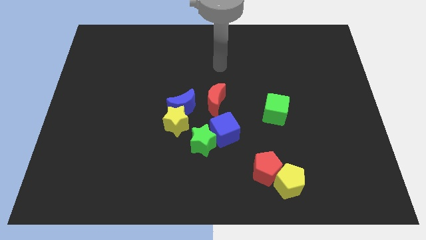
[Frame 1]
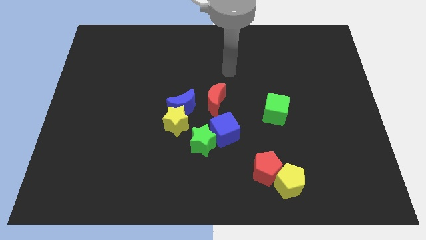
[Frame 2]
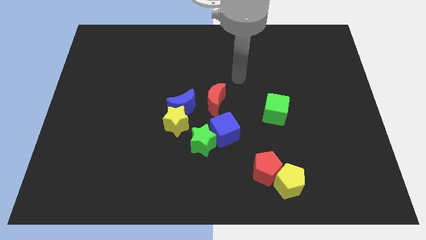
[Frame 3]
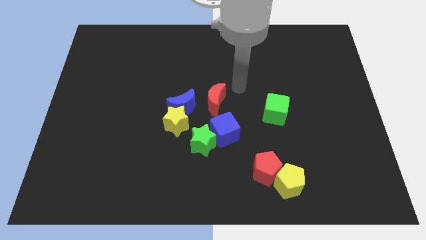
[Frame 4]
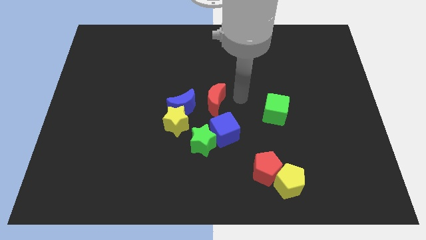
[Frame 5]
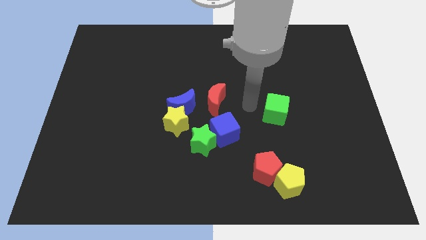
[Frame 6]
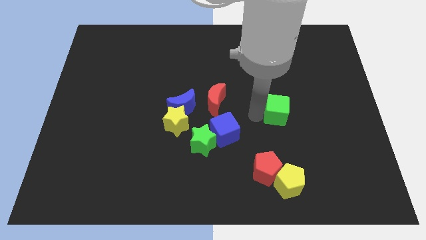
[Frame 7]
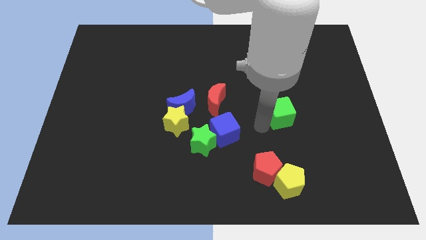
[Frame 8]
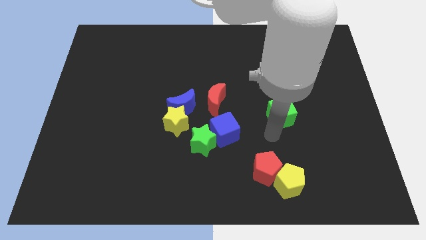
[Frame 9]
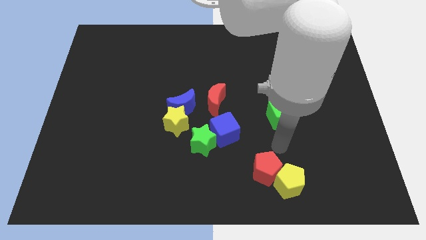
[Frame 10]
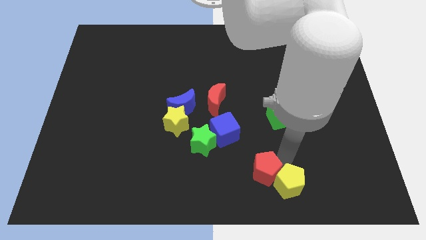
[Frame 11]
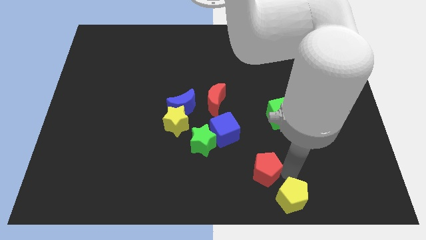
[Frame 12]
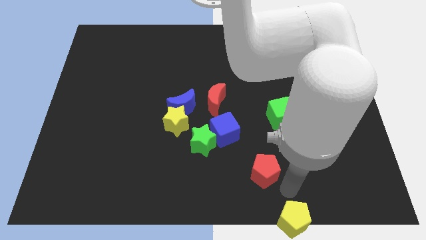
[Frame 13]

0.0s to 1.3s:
separate the red pentagon from the yellow pentagon

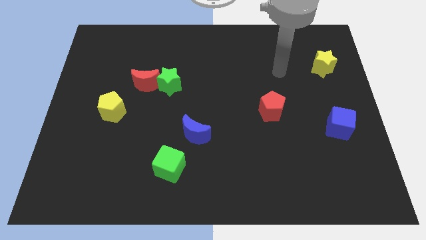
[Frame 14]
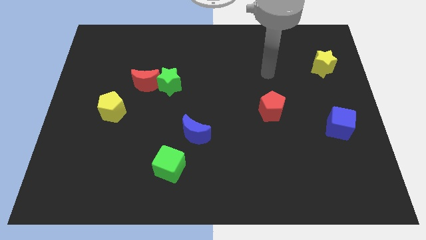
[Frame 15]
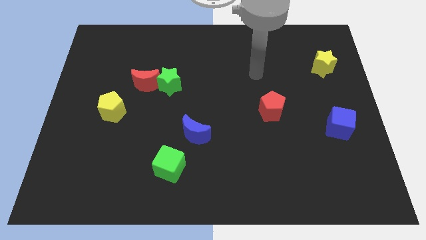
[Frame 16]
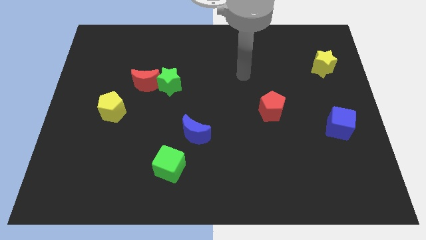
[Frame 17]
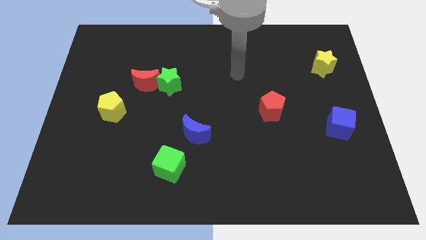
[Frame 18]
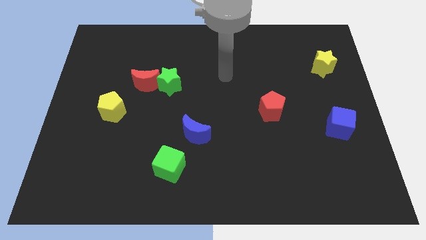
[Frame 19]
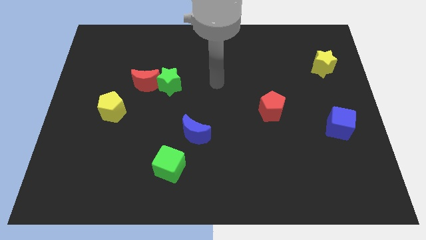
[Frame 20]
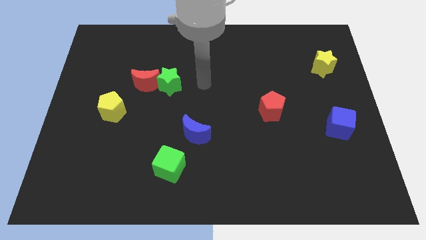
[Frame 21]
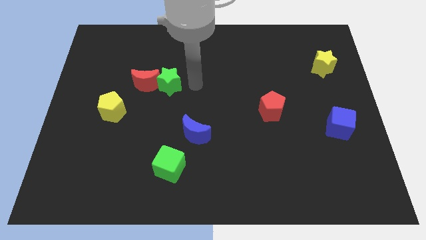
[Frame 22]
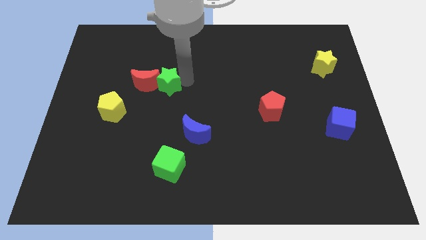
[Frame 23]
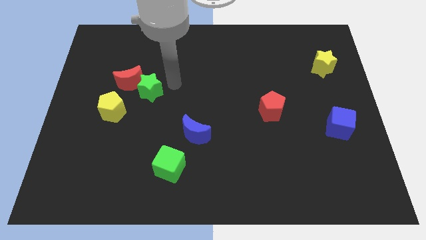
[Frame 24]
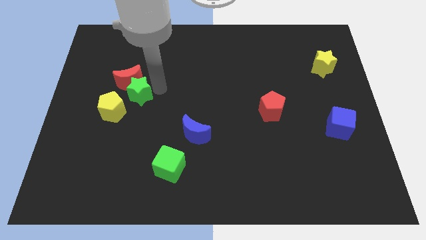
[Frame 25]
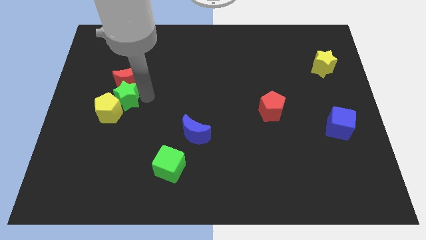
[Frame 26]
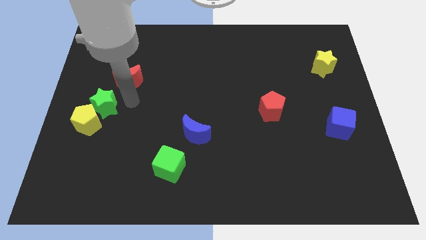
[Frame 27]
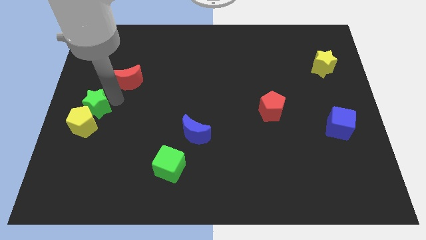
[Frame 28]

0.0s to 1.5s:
pull the red moon apart from the green star

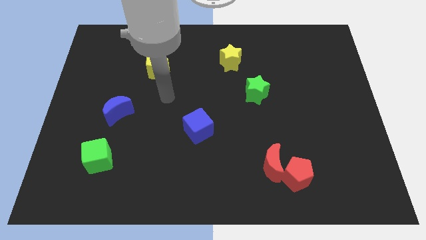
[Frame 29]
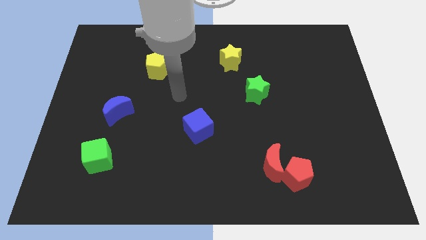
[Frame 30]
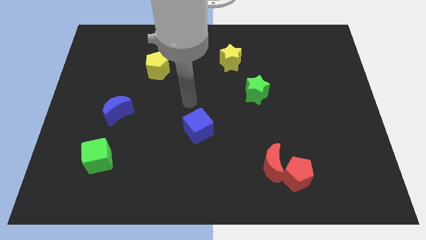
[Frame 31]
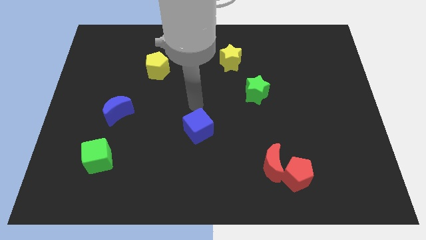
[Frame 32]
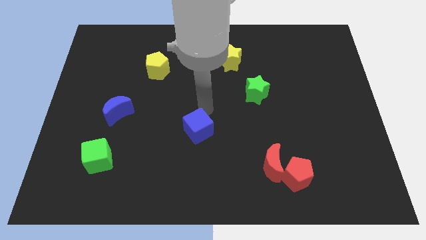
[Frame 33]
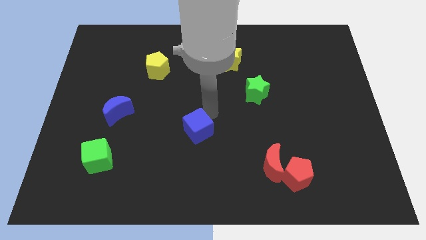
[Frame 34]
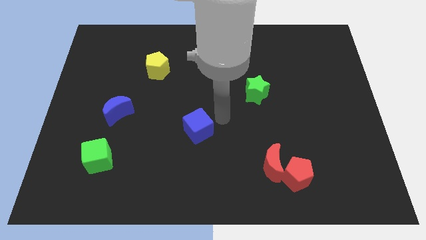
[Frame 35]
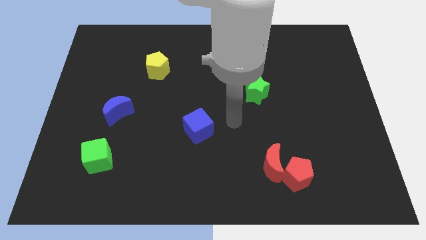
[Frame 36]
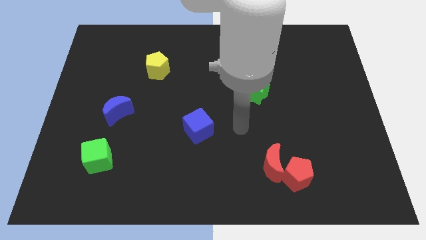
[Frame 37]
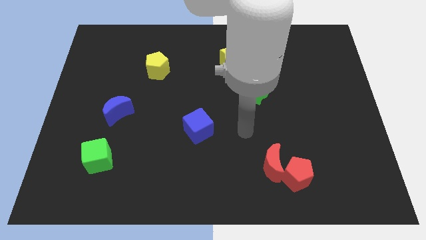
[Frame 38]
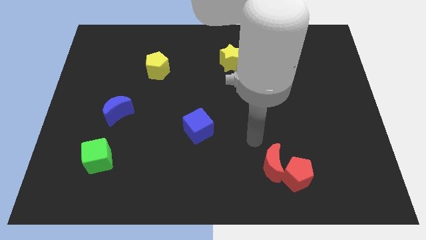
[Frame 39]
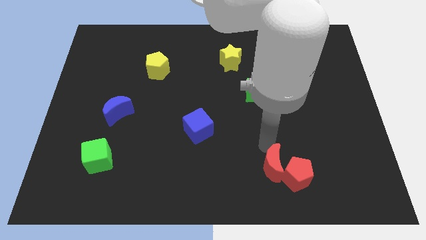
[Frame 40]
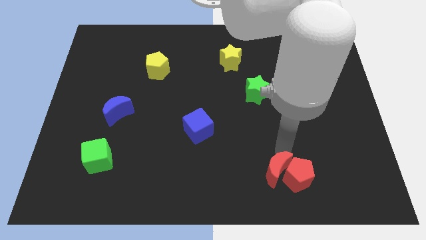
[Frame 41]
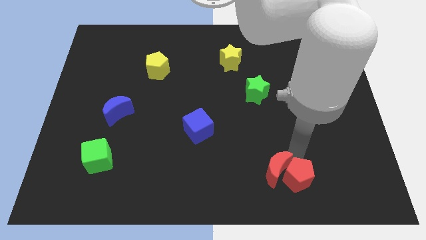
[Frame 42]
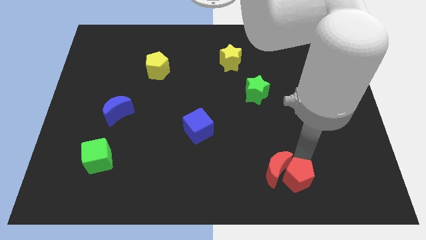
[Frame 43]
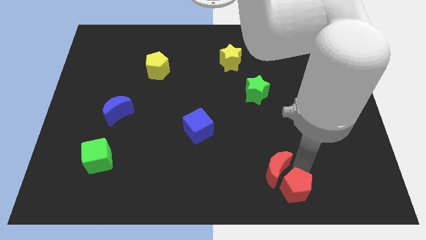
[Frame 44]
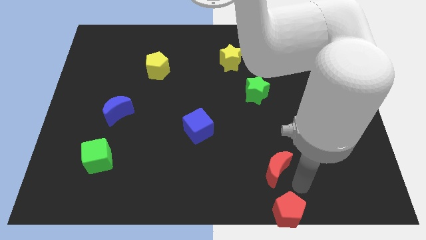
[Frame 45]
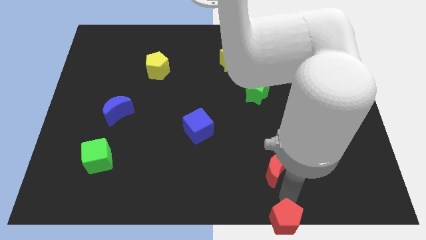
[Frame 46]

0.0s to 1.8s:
separate the red moon from the red pentagon

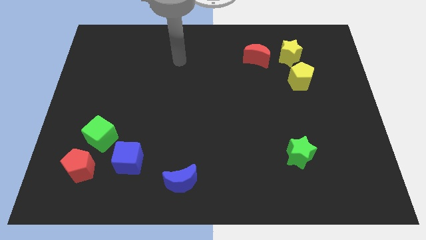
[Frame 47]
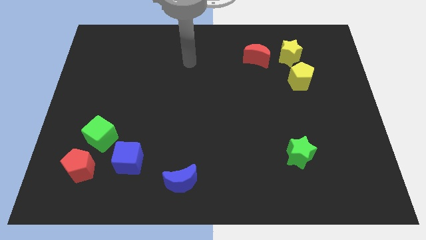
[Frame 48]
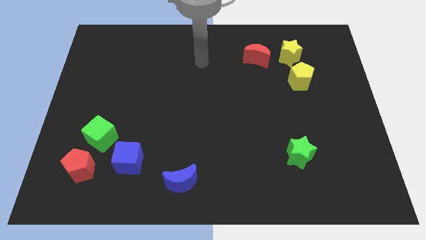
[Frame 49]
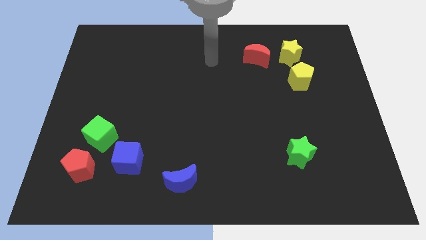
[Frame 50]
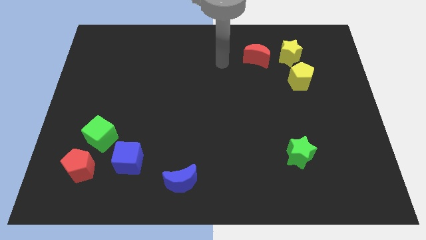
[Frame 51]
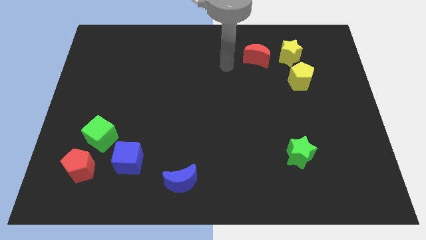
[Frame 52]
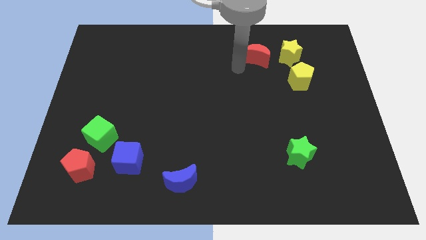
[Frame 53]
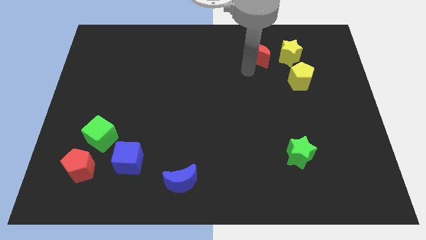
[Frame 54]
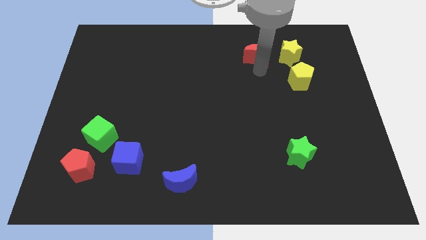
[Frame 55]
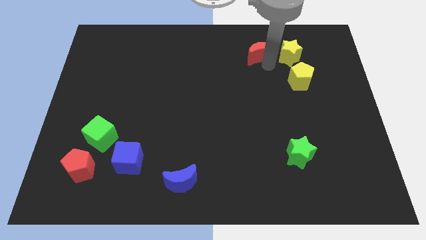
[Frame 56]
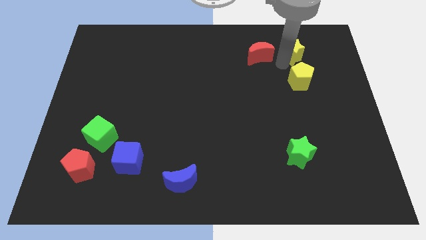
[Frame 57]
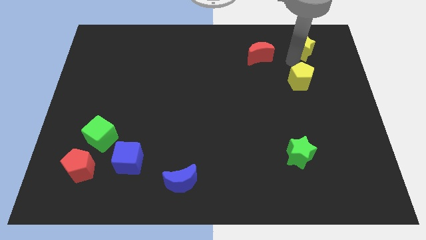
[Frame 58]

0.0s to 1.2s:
move the yellow pentagon away from the yellow star

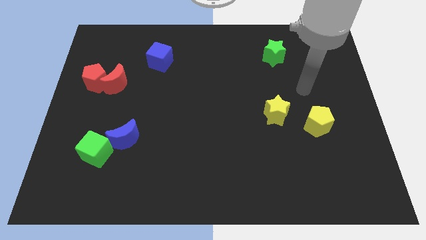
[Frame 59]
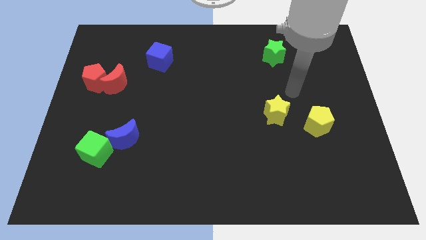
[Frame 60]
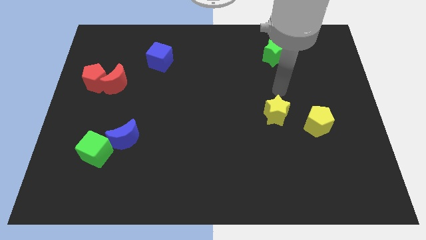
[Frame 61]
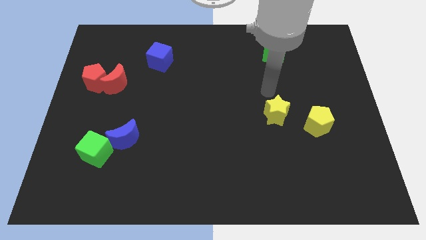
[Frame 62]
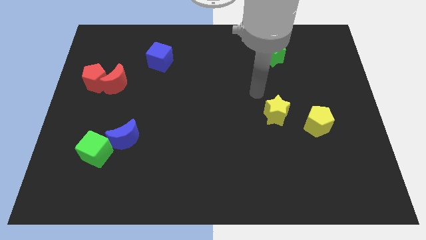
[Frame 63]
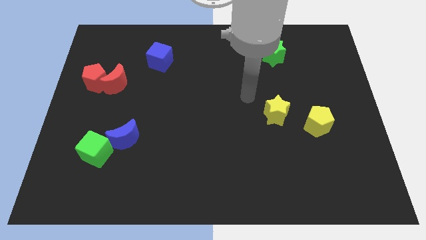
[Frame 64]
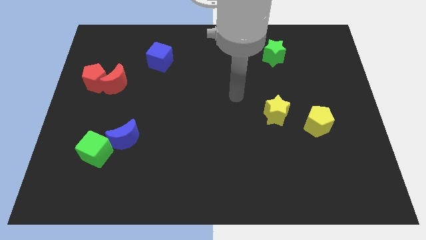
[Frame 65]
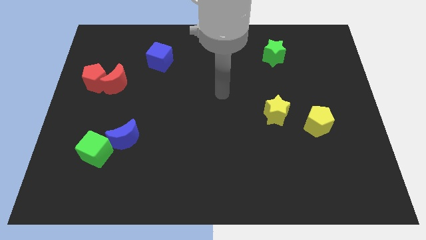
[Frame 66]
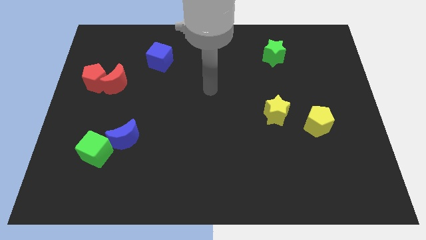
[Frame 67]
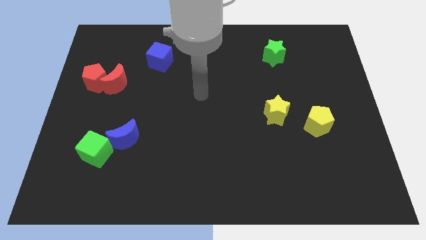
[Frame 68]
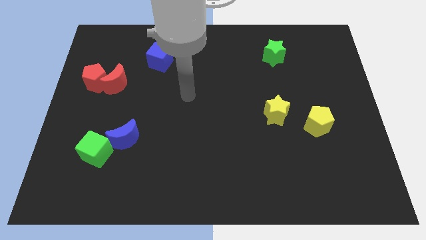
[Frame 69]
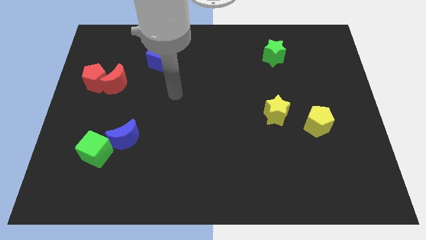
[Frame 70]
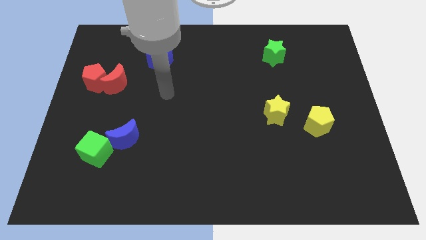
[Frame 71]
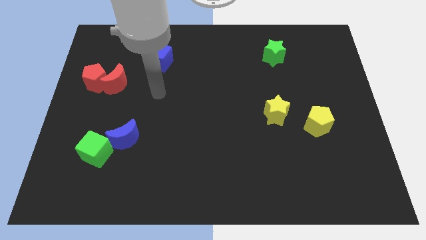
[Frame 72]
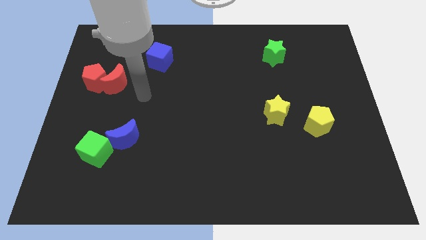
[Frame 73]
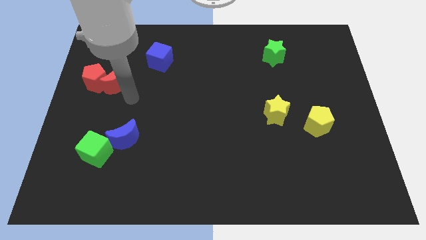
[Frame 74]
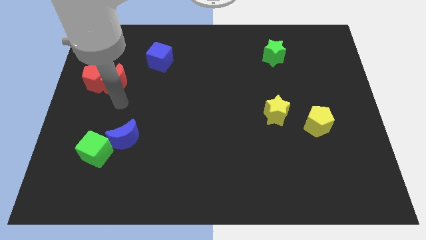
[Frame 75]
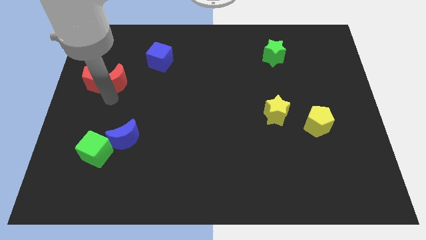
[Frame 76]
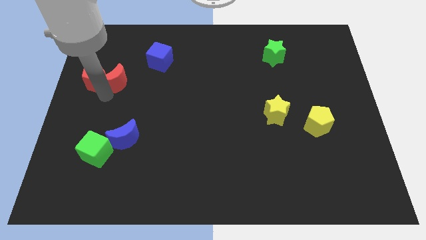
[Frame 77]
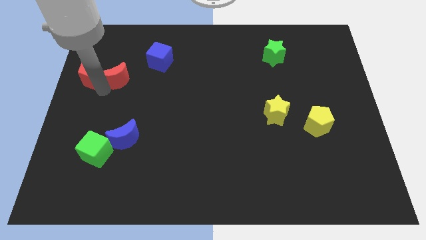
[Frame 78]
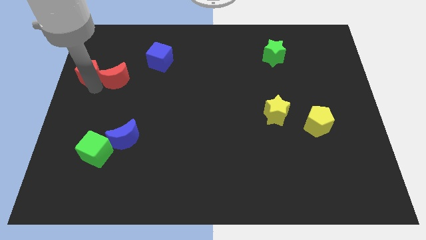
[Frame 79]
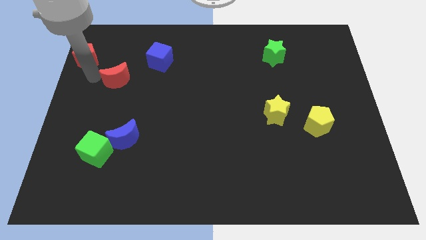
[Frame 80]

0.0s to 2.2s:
pull the red moon apart from the red pentagon

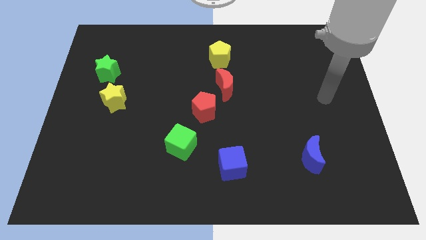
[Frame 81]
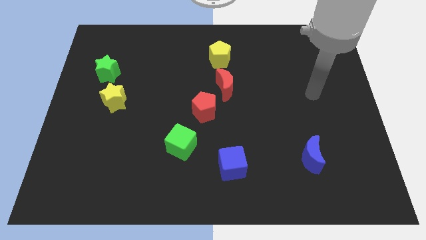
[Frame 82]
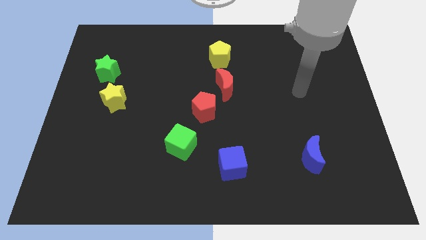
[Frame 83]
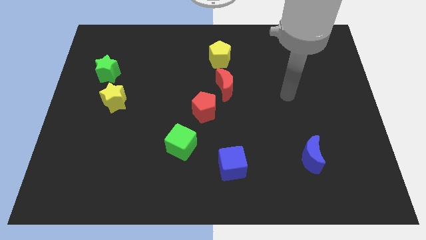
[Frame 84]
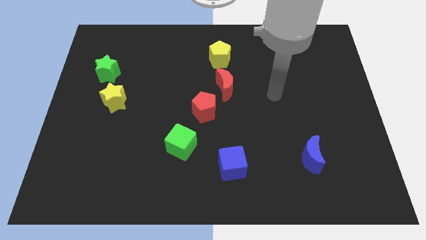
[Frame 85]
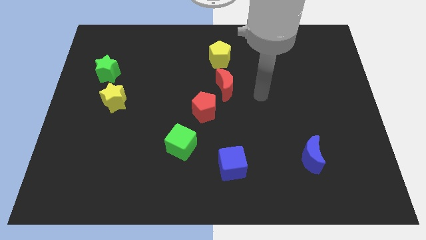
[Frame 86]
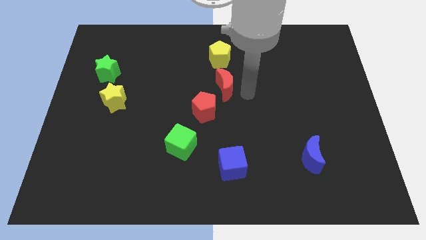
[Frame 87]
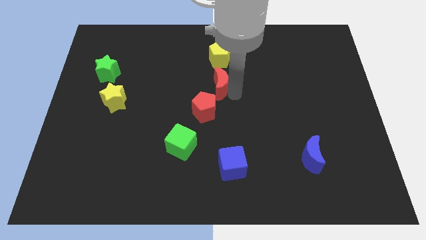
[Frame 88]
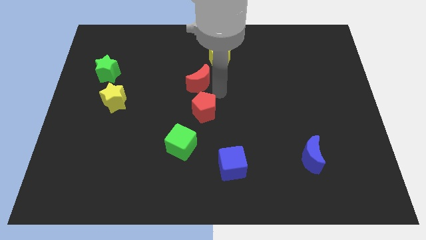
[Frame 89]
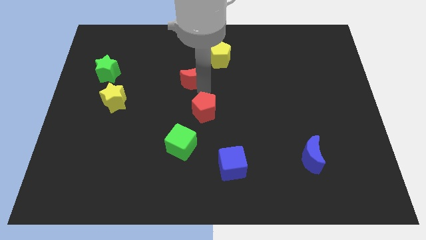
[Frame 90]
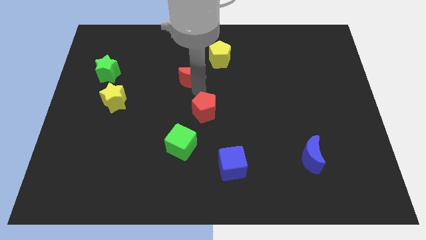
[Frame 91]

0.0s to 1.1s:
move the red pentagon away from the red moon
